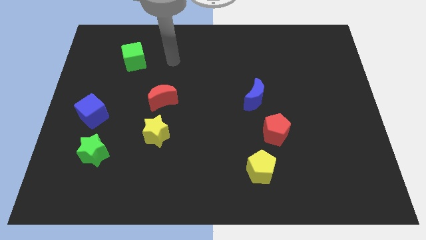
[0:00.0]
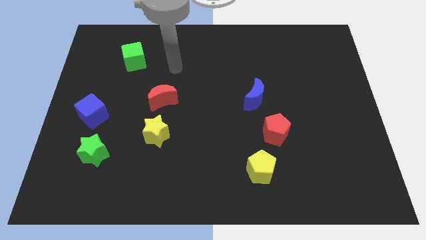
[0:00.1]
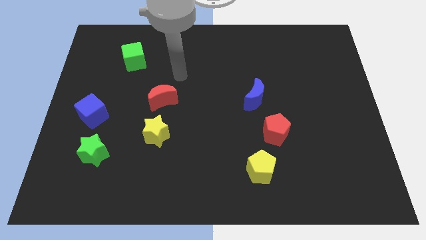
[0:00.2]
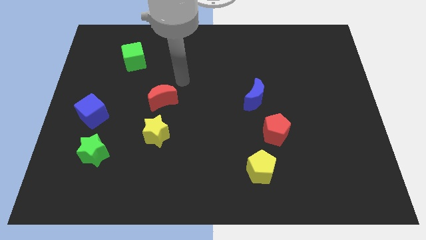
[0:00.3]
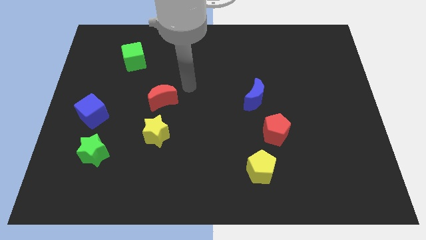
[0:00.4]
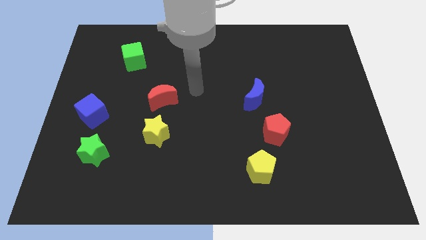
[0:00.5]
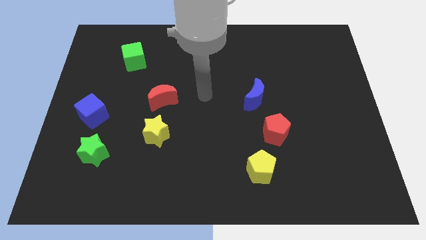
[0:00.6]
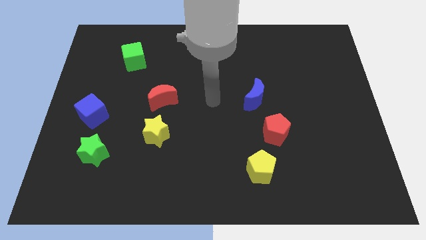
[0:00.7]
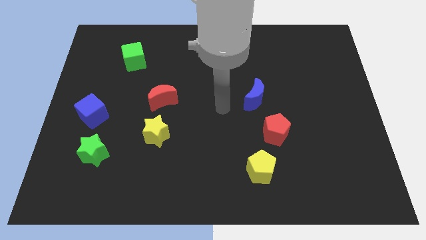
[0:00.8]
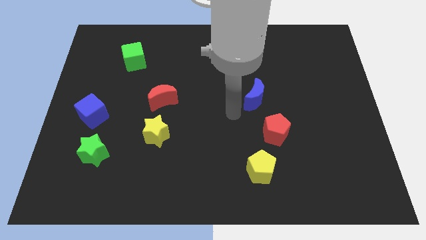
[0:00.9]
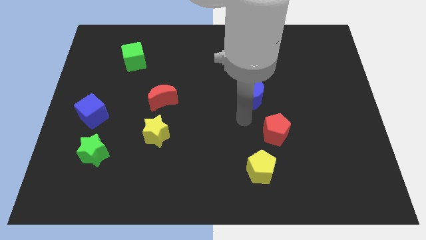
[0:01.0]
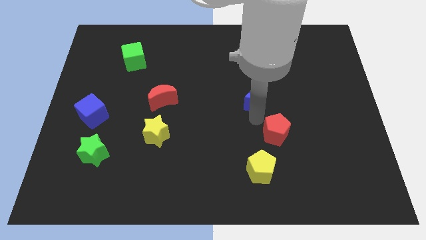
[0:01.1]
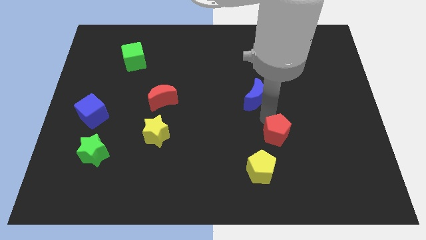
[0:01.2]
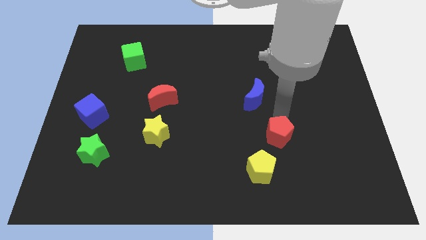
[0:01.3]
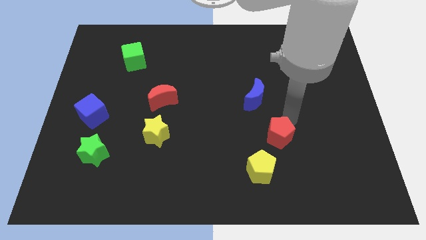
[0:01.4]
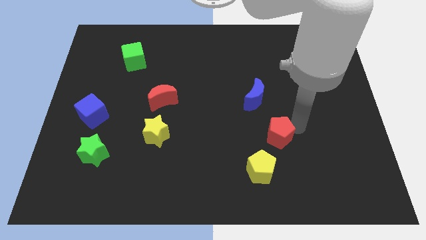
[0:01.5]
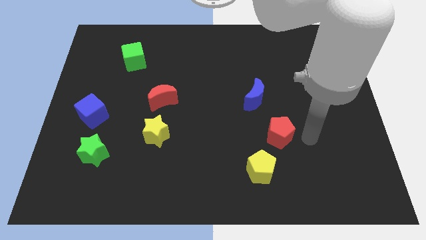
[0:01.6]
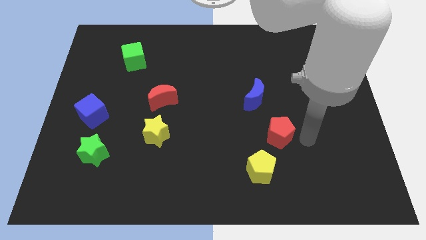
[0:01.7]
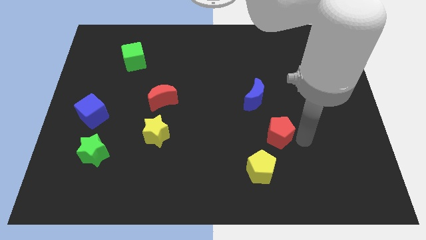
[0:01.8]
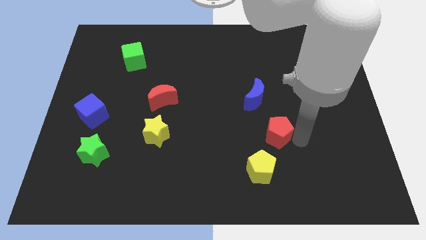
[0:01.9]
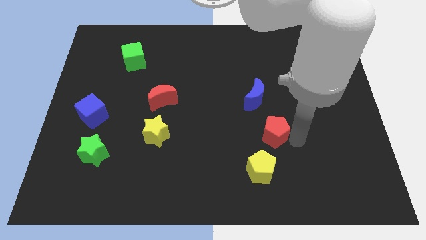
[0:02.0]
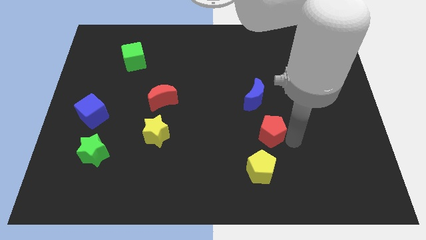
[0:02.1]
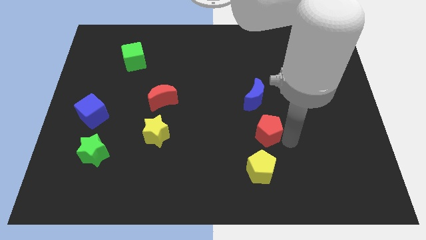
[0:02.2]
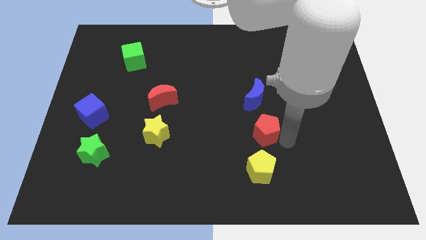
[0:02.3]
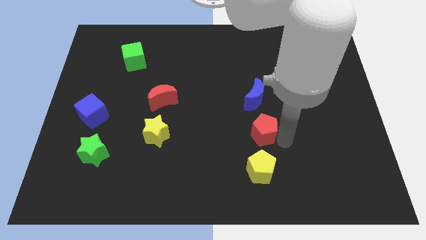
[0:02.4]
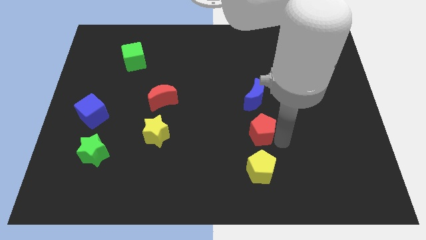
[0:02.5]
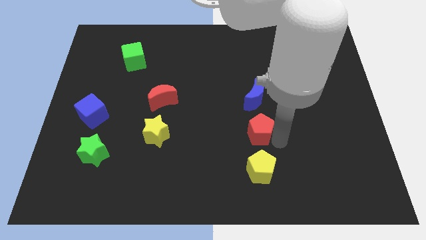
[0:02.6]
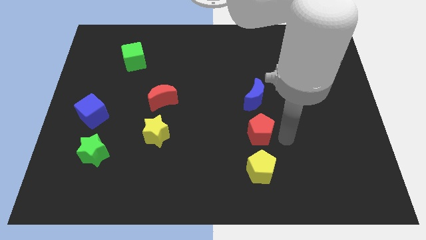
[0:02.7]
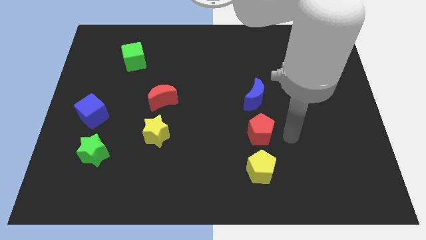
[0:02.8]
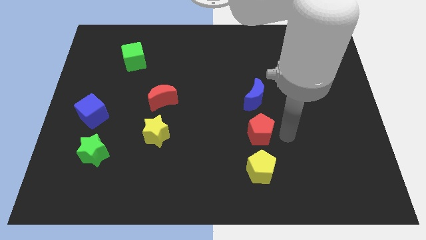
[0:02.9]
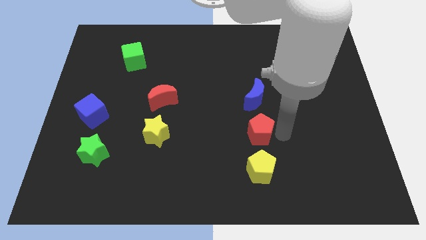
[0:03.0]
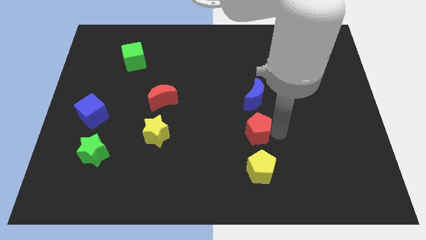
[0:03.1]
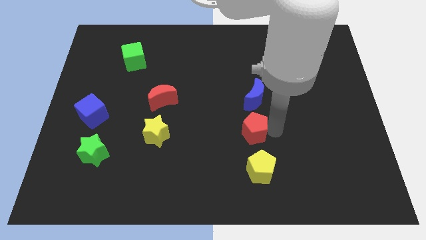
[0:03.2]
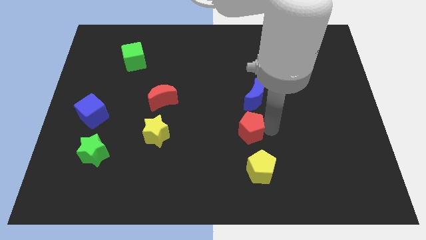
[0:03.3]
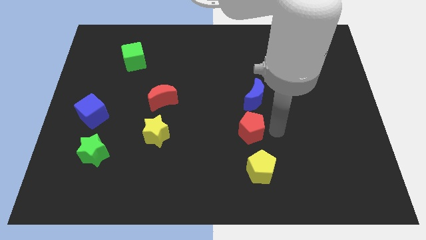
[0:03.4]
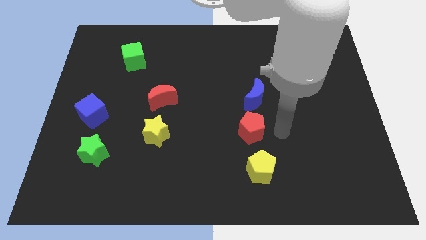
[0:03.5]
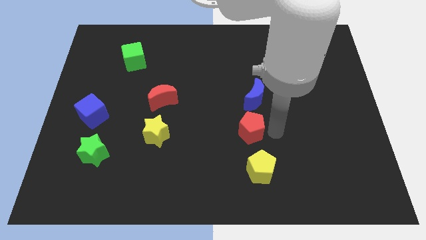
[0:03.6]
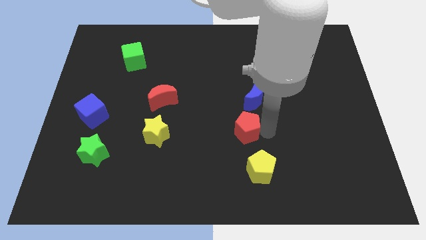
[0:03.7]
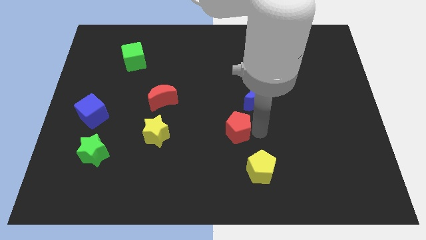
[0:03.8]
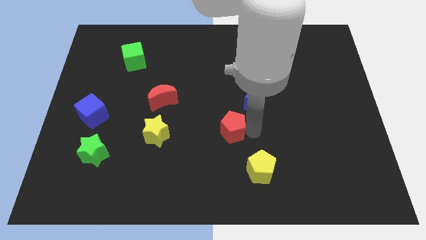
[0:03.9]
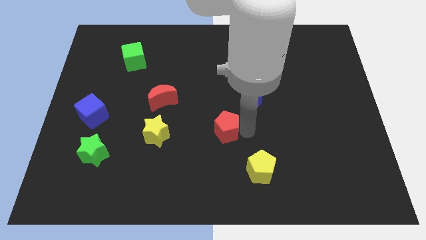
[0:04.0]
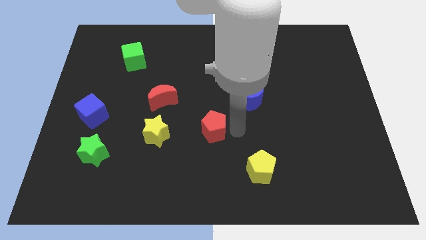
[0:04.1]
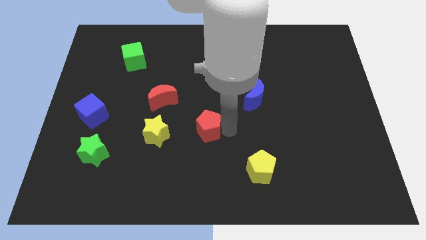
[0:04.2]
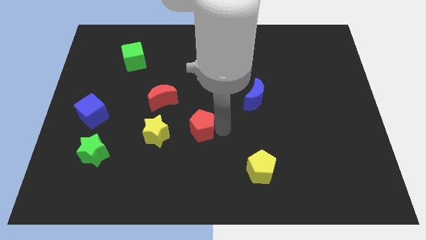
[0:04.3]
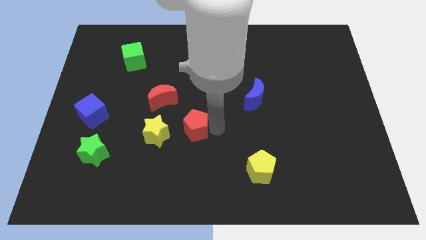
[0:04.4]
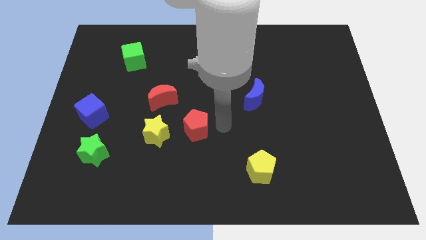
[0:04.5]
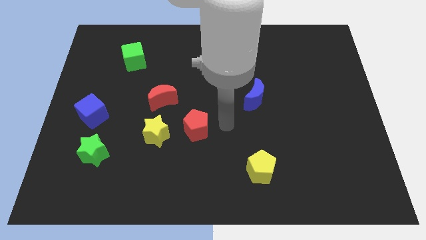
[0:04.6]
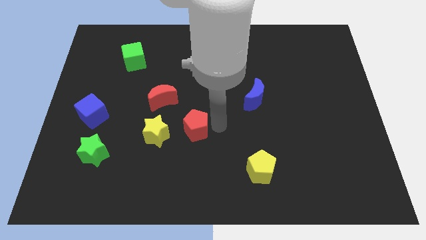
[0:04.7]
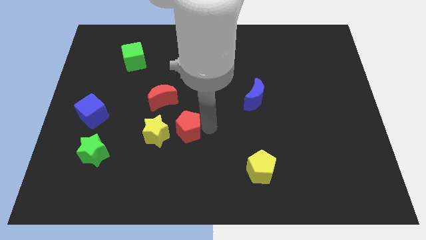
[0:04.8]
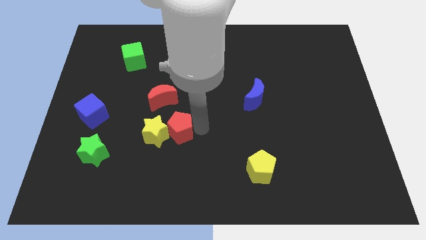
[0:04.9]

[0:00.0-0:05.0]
slide the red pentagon next to the yellow star

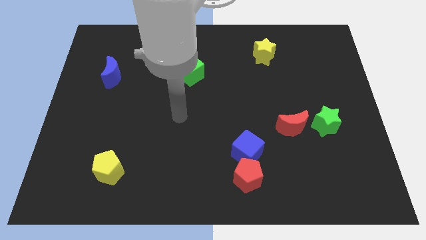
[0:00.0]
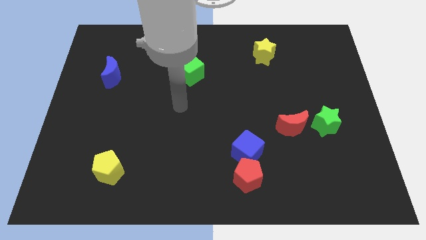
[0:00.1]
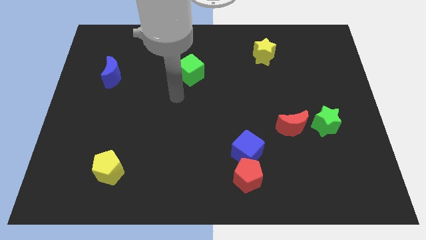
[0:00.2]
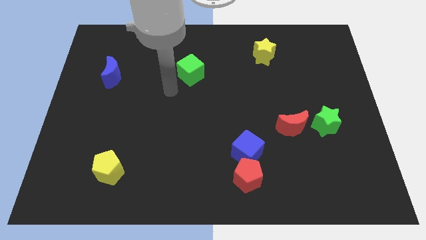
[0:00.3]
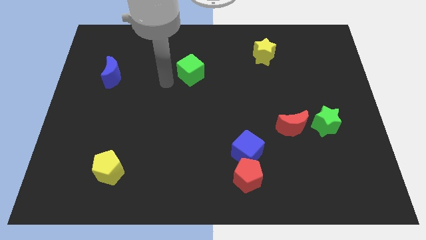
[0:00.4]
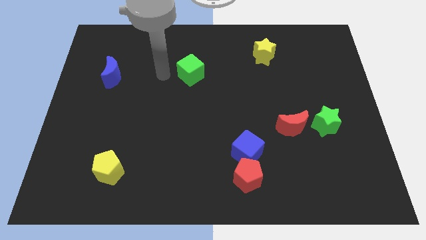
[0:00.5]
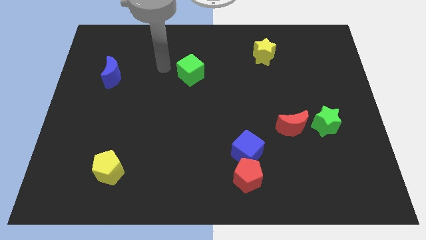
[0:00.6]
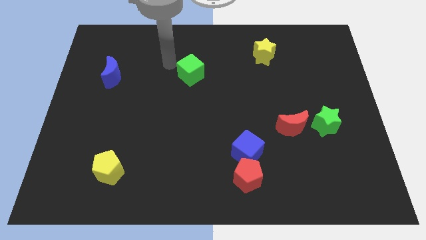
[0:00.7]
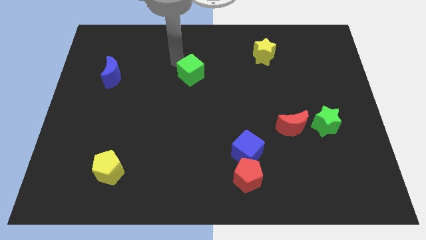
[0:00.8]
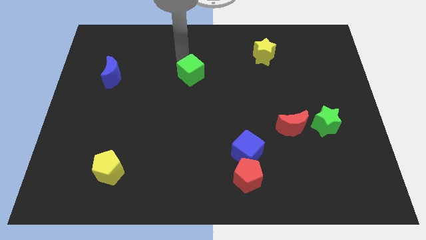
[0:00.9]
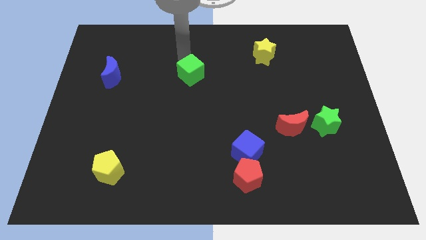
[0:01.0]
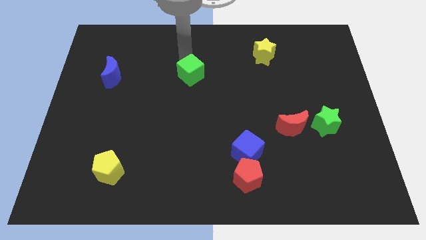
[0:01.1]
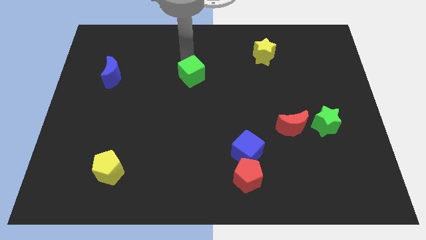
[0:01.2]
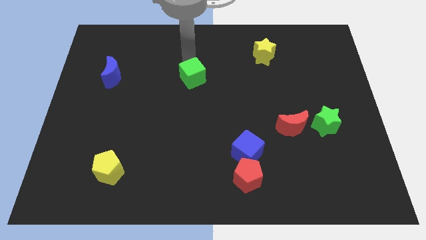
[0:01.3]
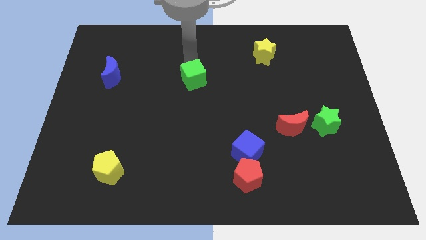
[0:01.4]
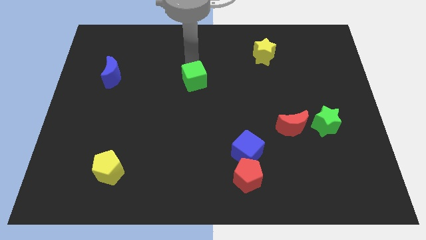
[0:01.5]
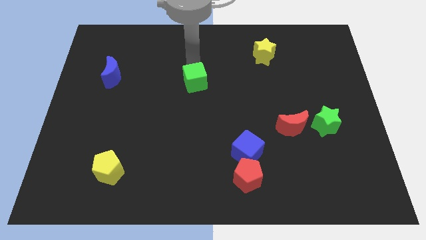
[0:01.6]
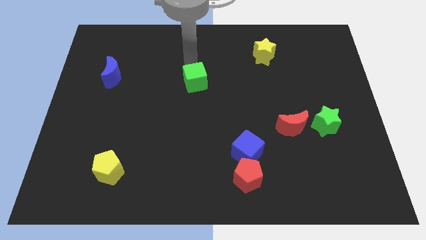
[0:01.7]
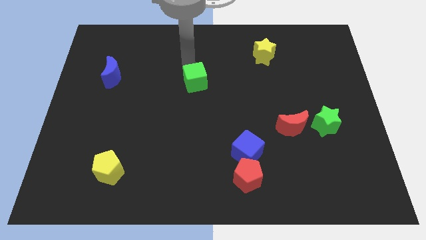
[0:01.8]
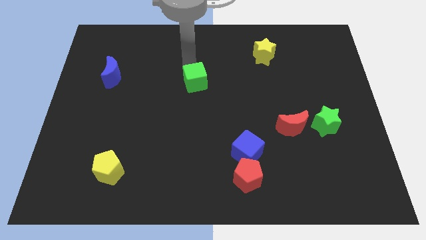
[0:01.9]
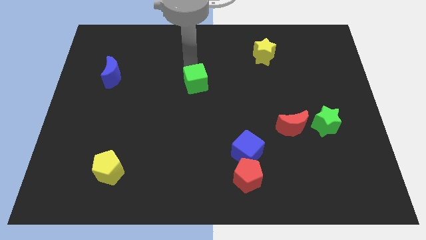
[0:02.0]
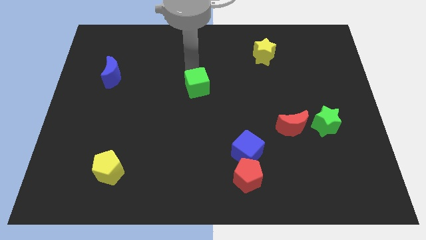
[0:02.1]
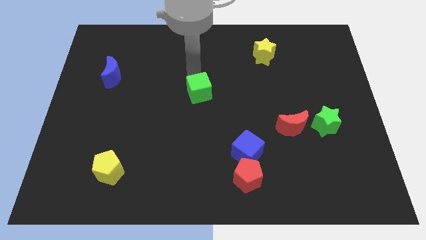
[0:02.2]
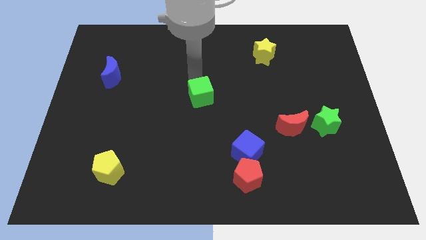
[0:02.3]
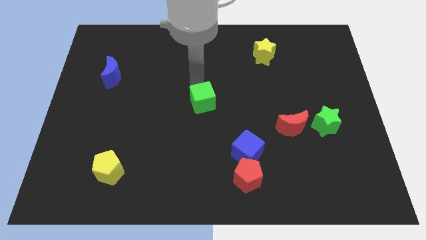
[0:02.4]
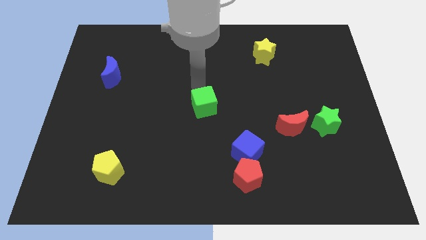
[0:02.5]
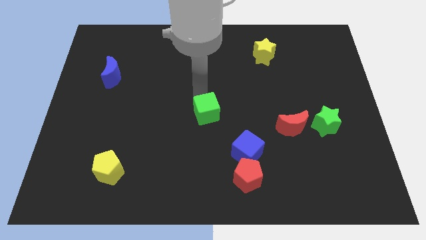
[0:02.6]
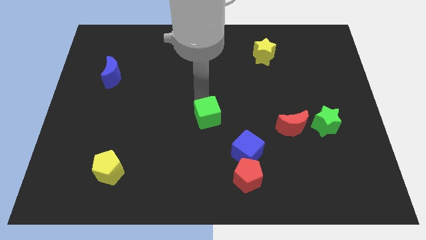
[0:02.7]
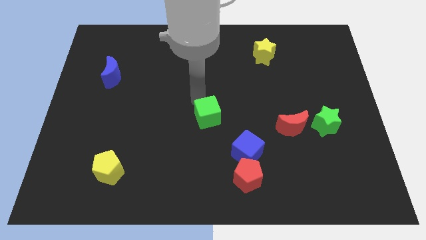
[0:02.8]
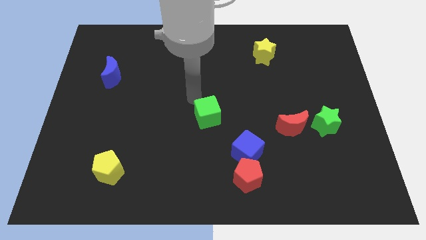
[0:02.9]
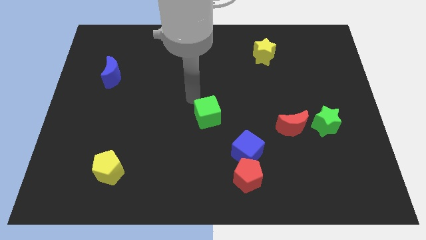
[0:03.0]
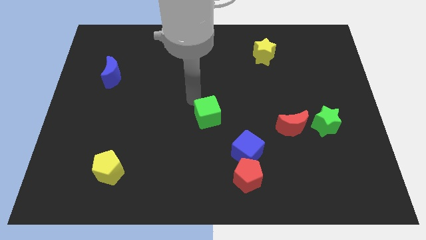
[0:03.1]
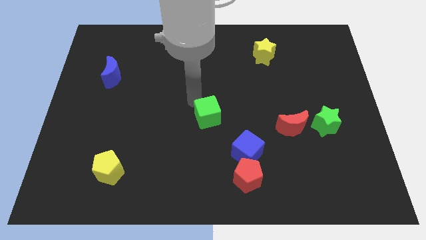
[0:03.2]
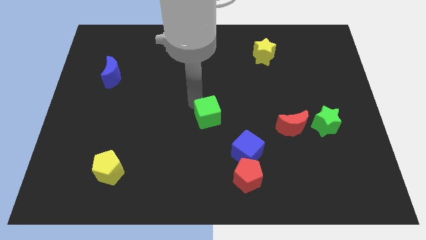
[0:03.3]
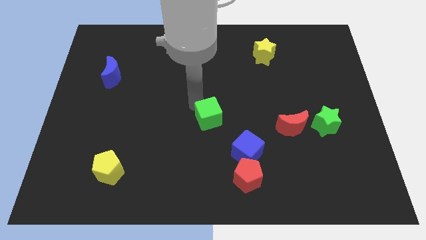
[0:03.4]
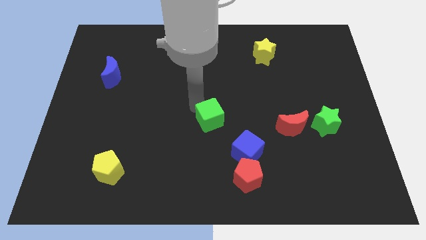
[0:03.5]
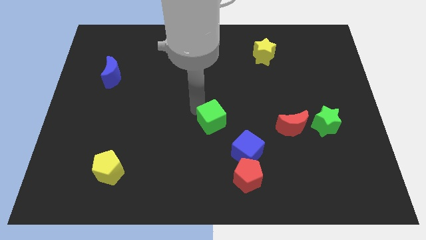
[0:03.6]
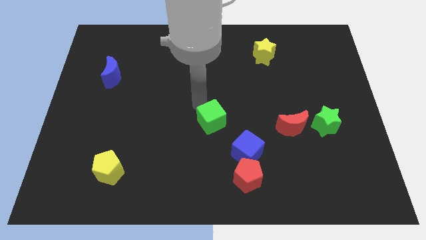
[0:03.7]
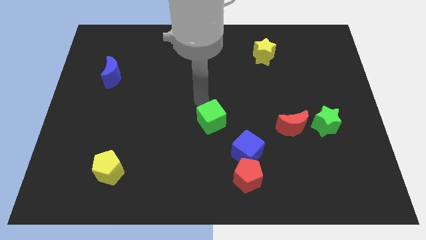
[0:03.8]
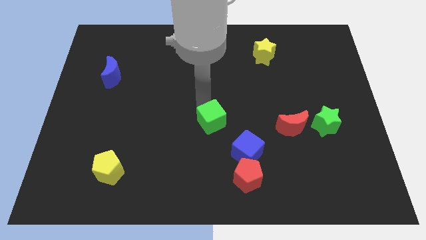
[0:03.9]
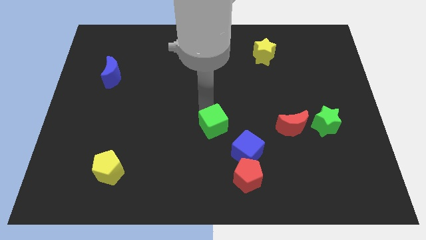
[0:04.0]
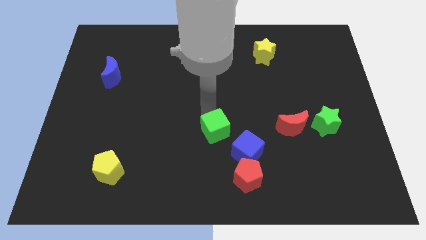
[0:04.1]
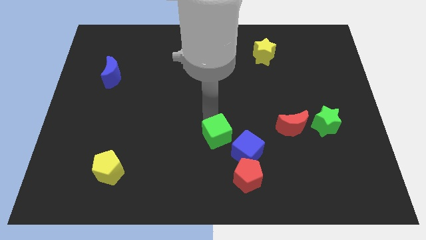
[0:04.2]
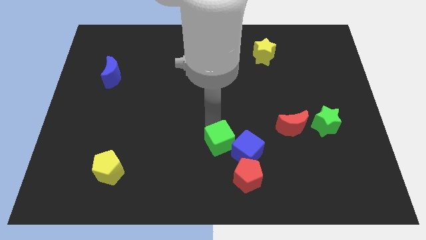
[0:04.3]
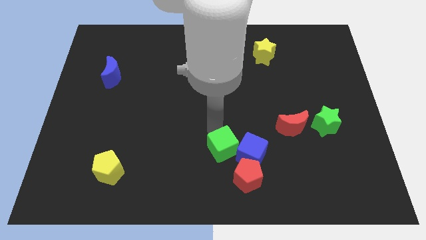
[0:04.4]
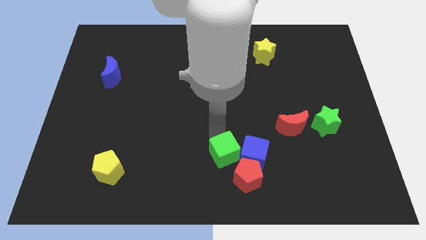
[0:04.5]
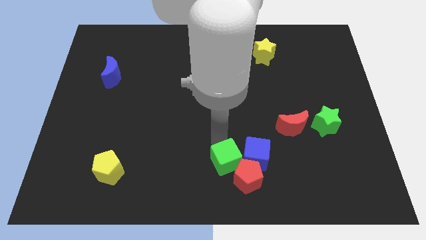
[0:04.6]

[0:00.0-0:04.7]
slide the green cube next to the red pentagon
